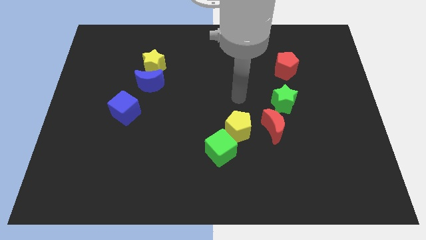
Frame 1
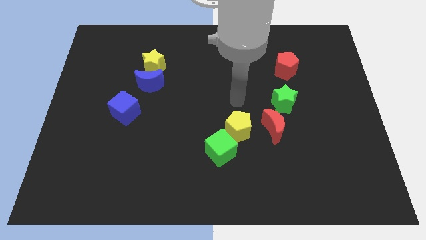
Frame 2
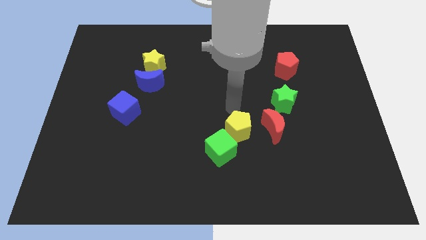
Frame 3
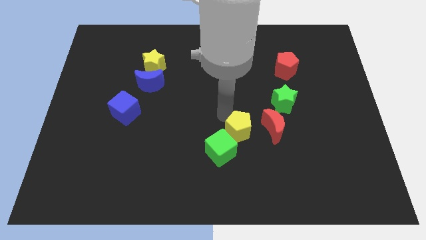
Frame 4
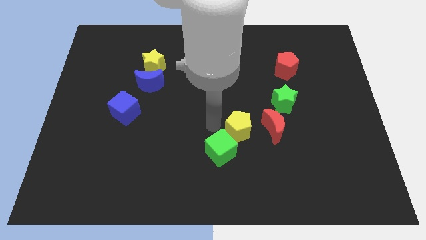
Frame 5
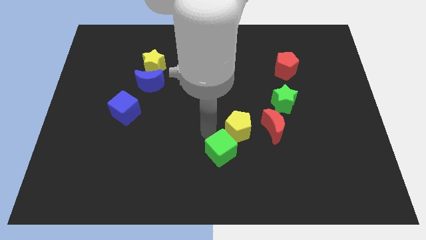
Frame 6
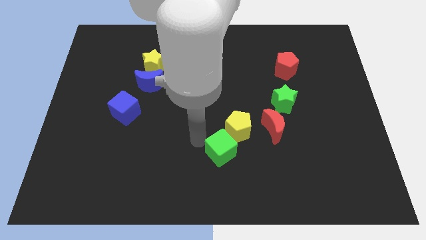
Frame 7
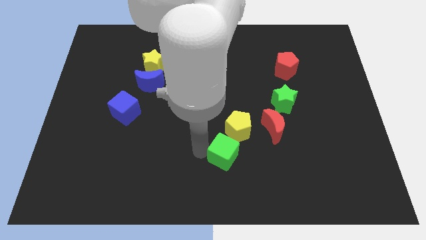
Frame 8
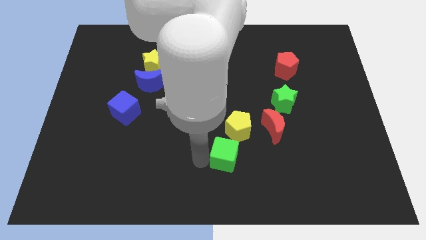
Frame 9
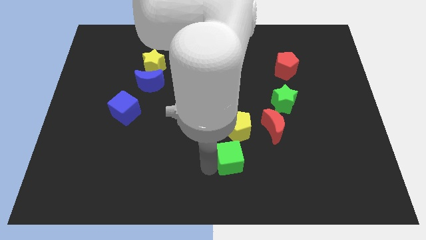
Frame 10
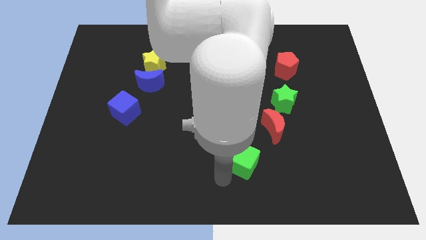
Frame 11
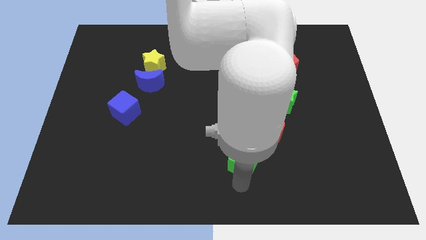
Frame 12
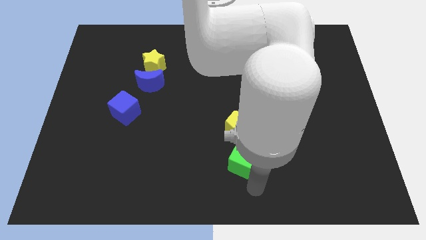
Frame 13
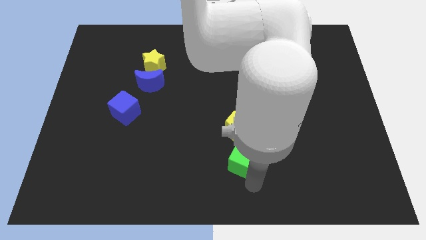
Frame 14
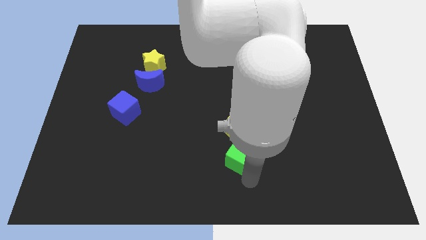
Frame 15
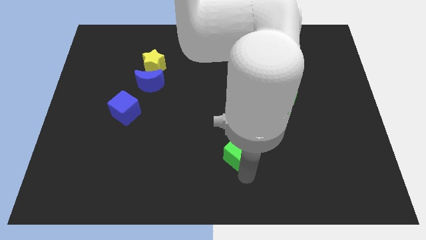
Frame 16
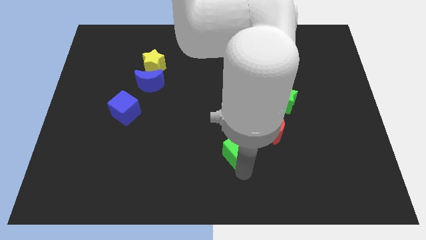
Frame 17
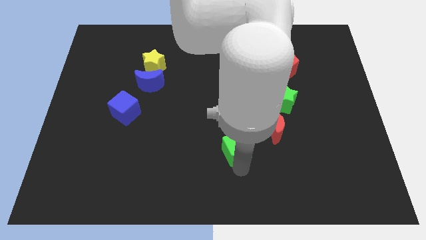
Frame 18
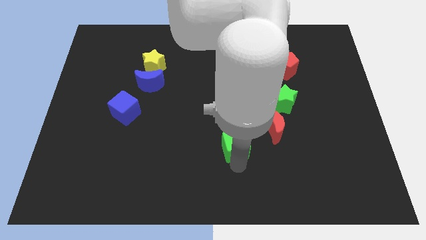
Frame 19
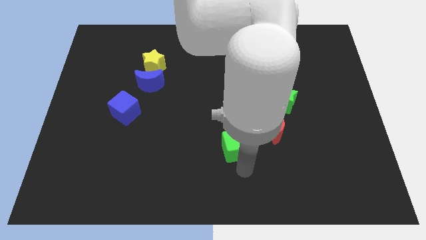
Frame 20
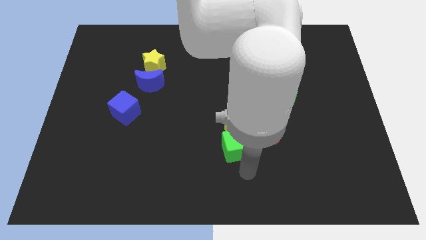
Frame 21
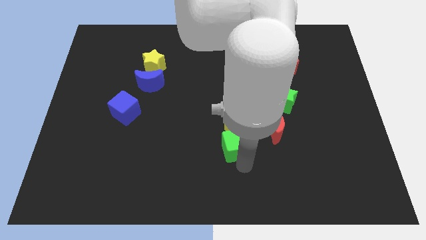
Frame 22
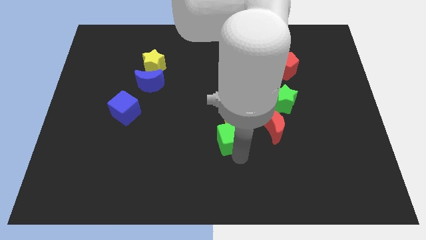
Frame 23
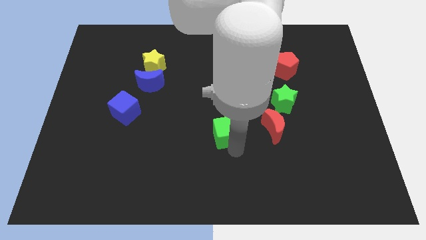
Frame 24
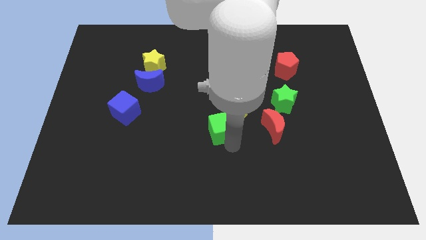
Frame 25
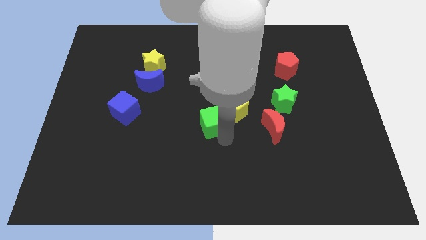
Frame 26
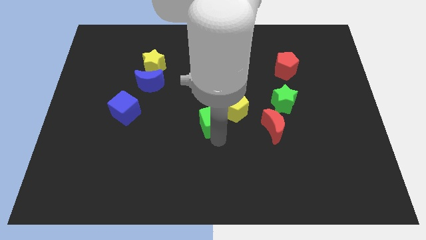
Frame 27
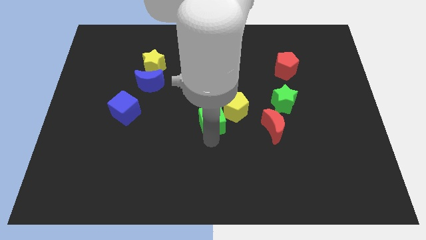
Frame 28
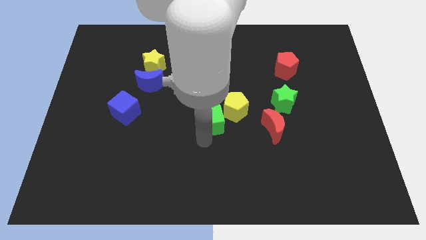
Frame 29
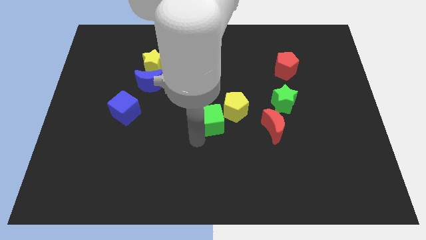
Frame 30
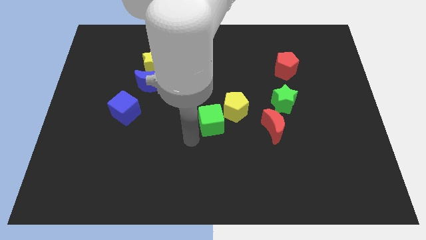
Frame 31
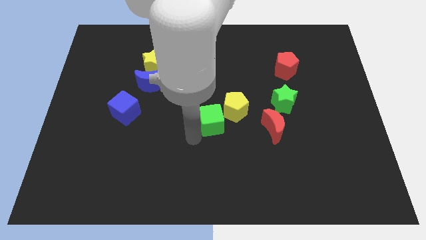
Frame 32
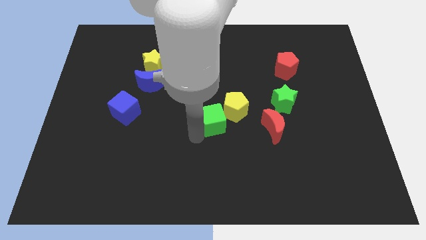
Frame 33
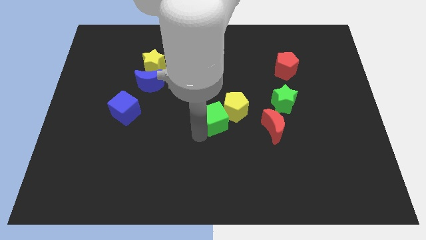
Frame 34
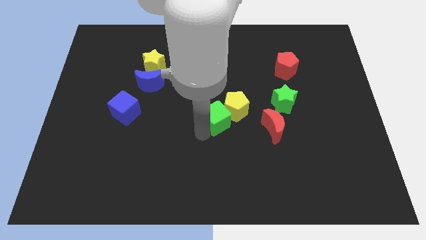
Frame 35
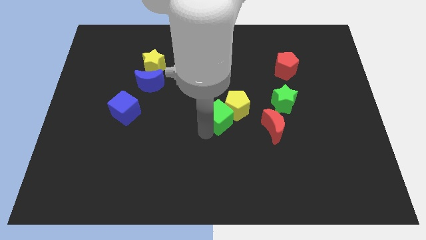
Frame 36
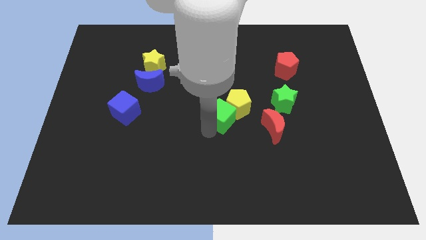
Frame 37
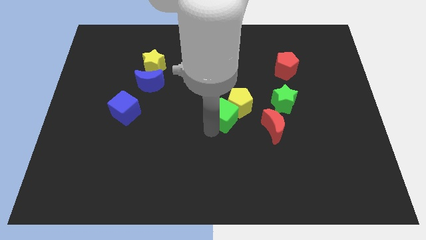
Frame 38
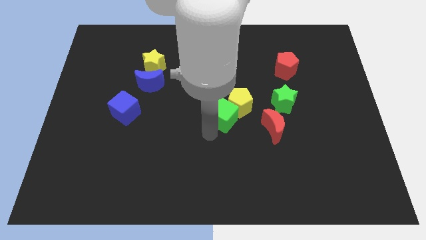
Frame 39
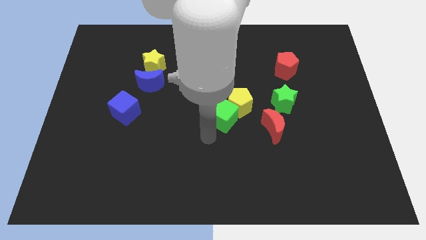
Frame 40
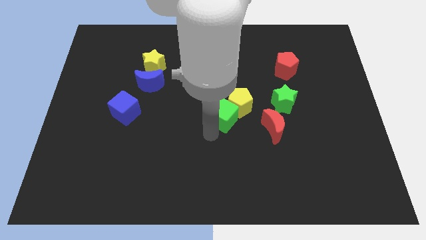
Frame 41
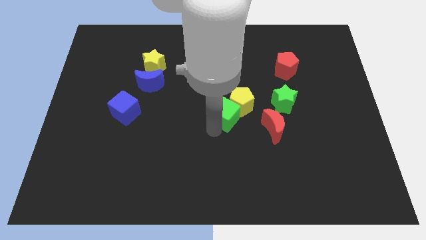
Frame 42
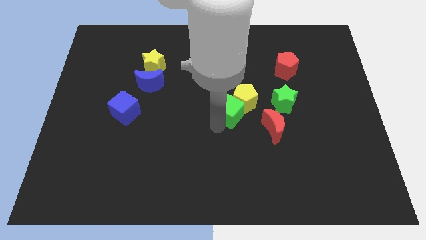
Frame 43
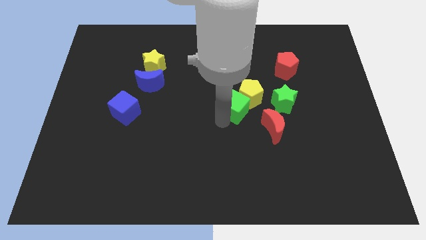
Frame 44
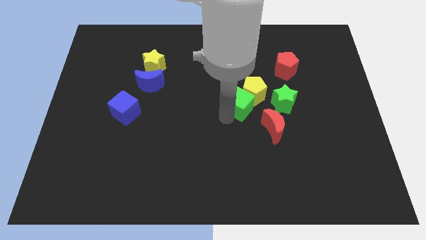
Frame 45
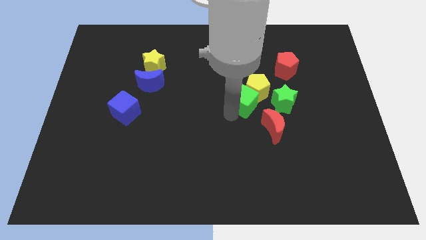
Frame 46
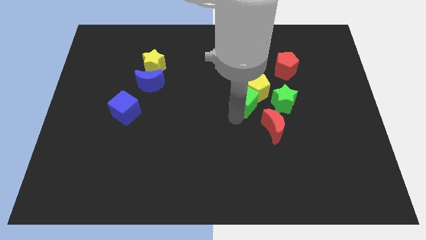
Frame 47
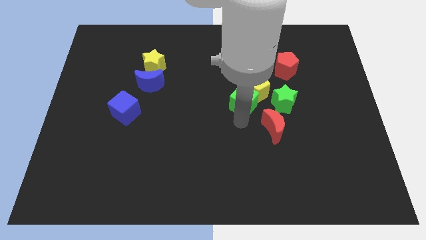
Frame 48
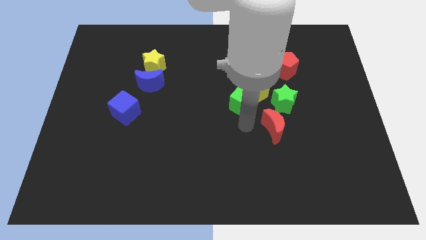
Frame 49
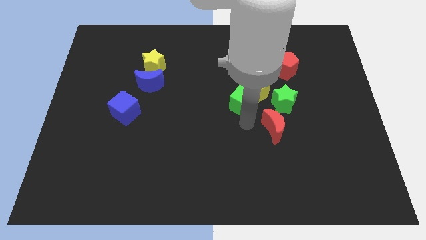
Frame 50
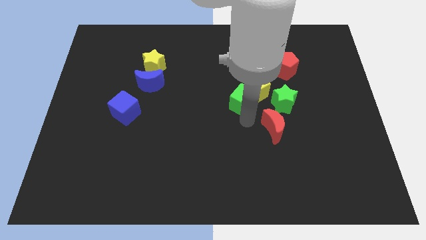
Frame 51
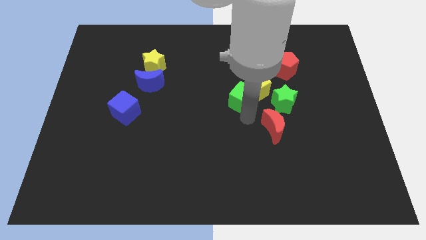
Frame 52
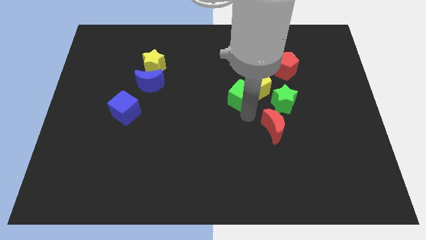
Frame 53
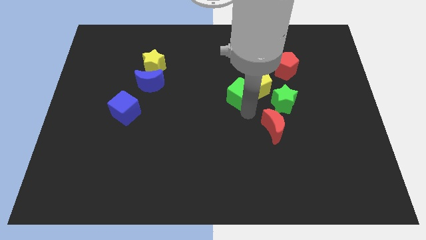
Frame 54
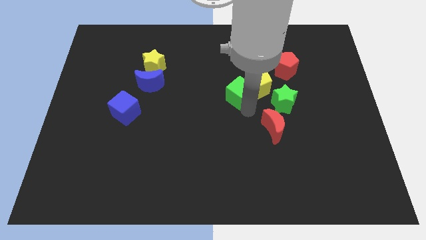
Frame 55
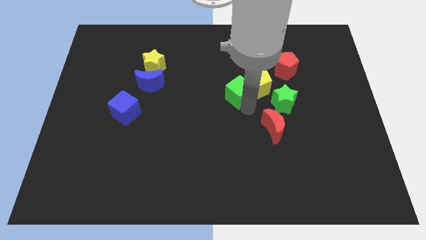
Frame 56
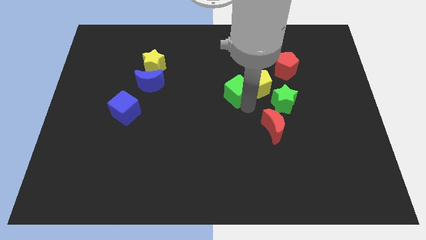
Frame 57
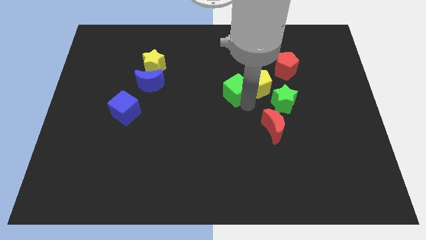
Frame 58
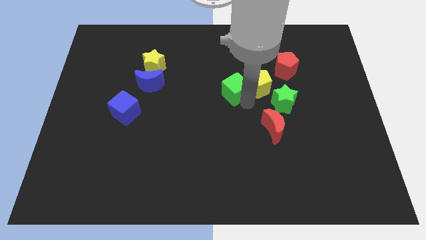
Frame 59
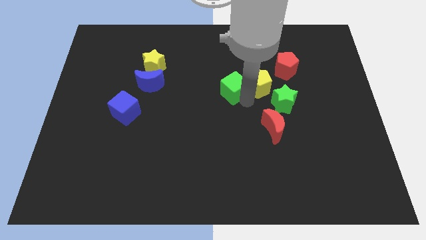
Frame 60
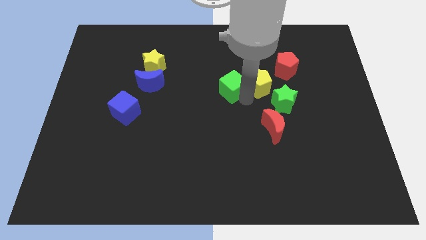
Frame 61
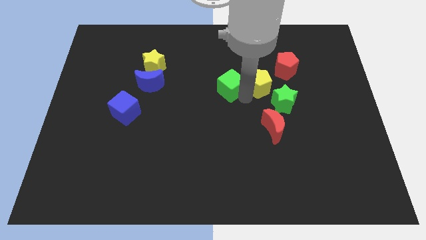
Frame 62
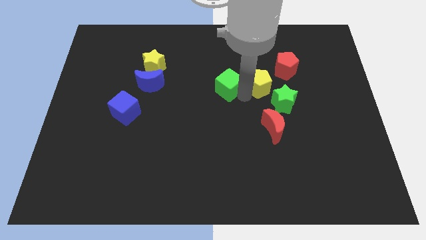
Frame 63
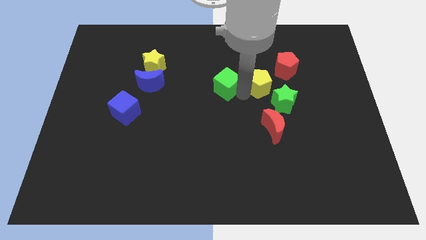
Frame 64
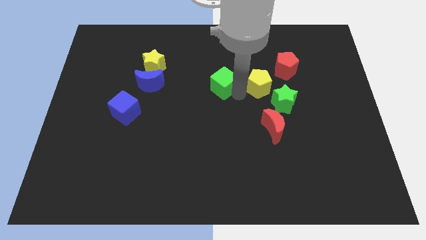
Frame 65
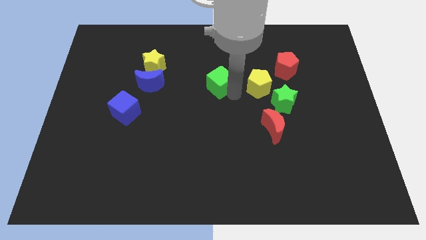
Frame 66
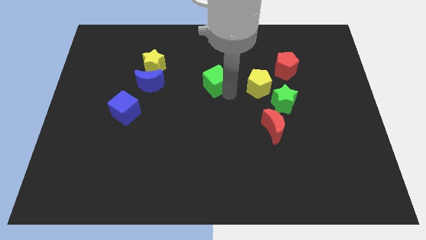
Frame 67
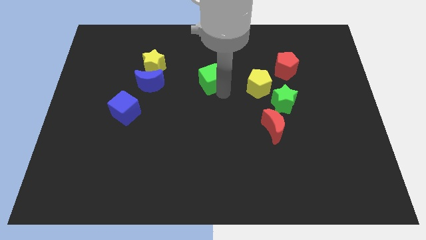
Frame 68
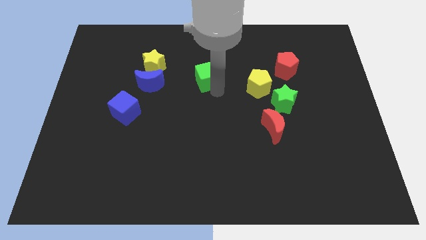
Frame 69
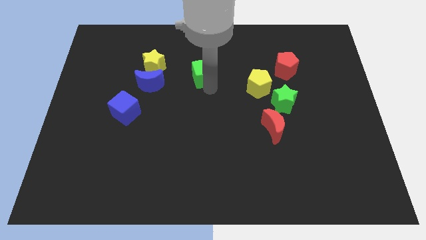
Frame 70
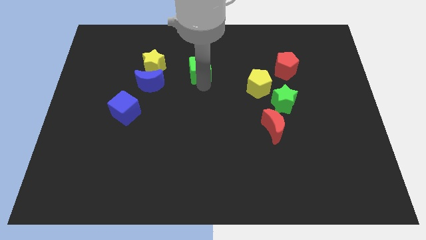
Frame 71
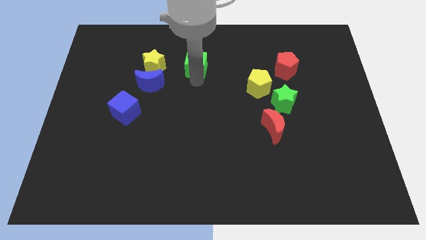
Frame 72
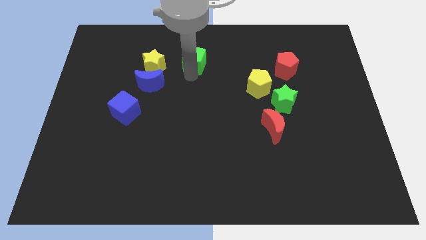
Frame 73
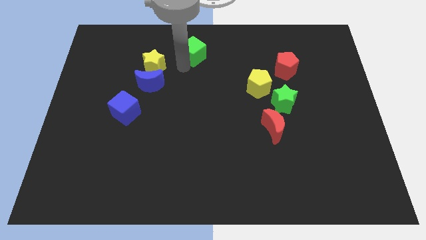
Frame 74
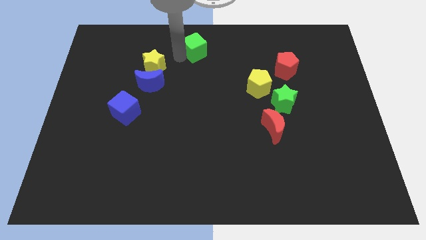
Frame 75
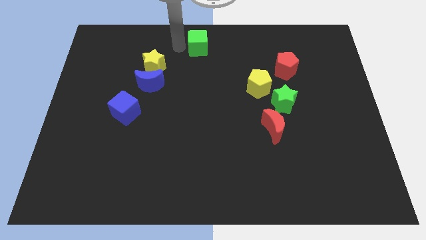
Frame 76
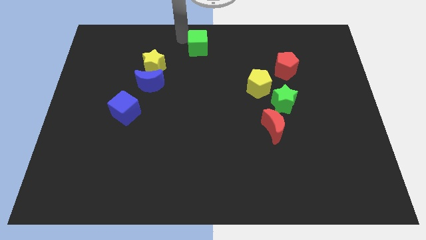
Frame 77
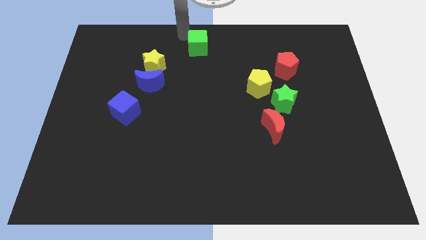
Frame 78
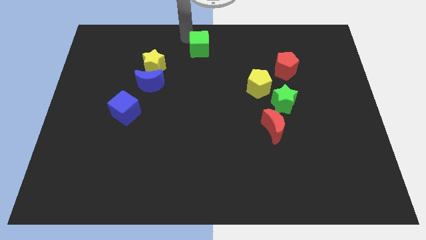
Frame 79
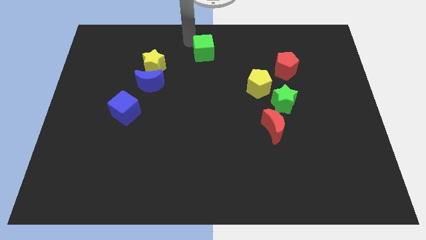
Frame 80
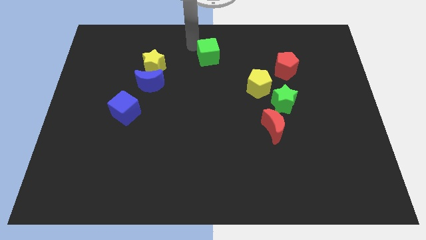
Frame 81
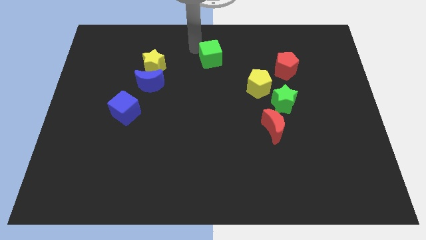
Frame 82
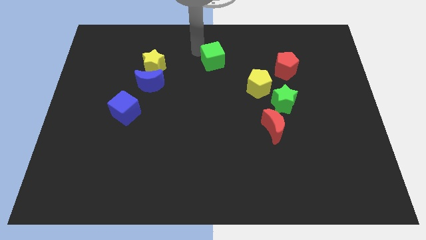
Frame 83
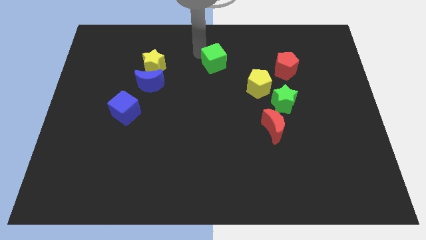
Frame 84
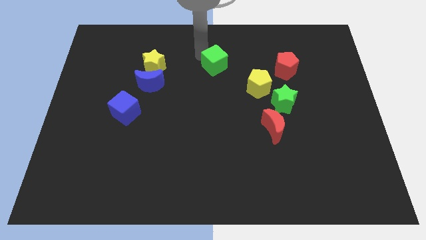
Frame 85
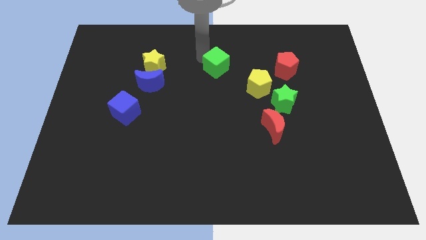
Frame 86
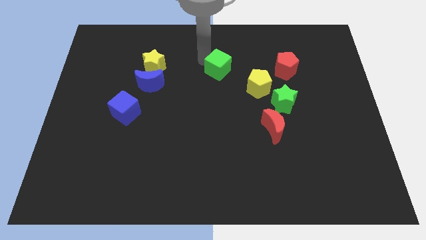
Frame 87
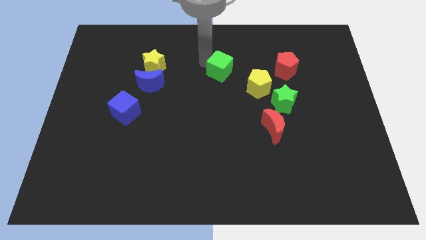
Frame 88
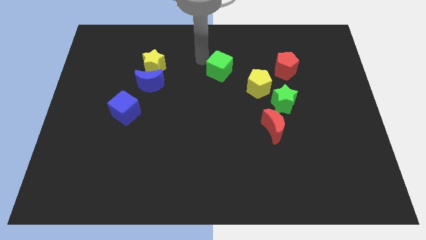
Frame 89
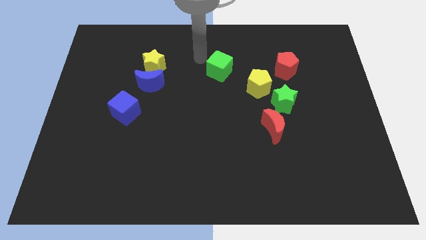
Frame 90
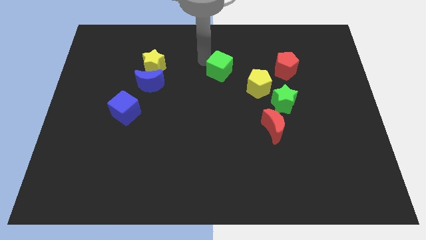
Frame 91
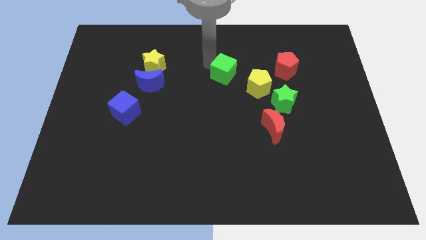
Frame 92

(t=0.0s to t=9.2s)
put the green cube to the left side of the red pentagon
